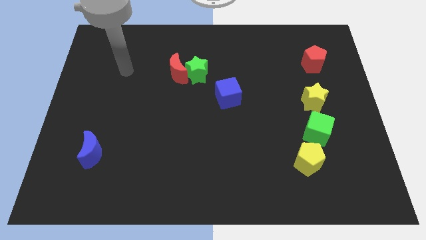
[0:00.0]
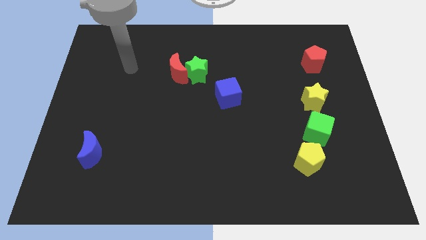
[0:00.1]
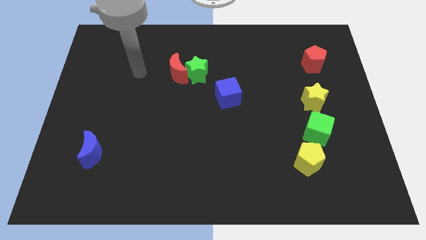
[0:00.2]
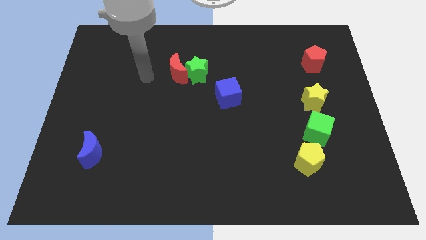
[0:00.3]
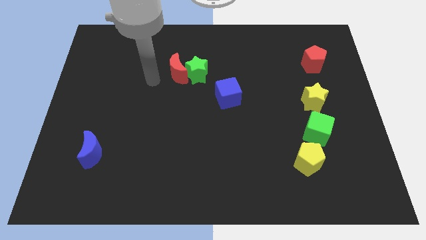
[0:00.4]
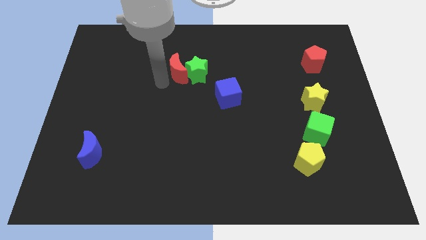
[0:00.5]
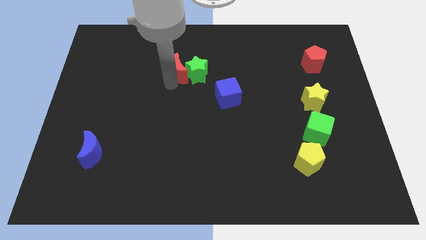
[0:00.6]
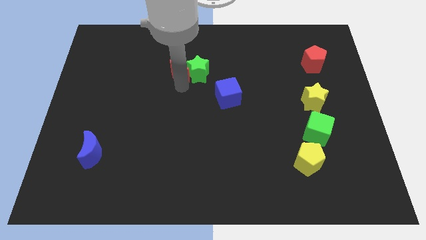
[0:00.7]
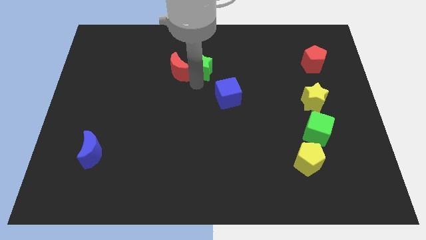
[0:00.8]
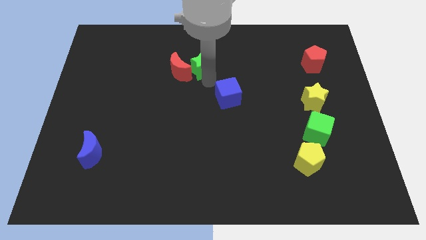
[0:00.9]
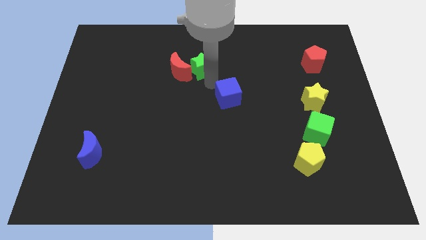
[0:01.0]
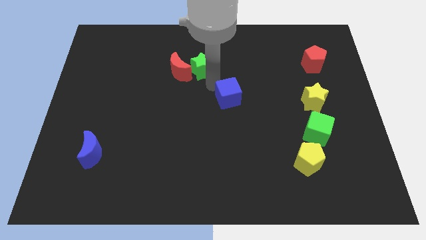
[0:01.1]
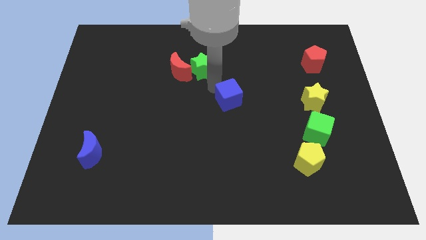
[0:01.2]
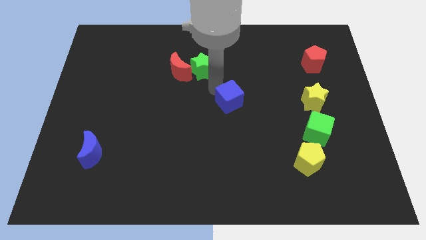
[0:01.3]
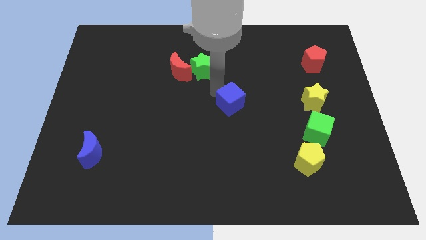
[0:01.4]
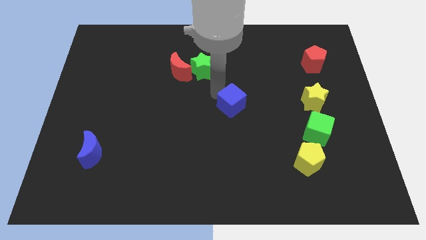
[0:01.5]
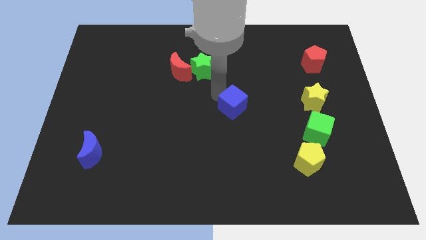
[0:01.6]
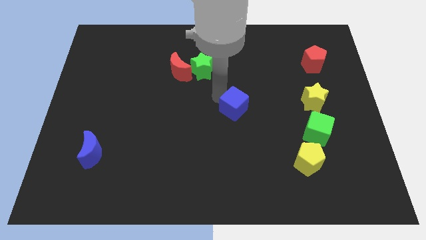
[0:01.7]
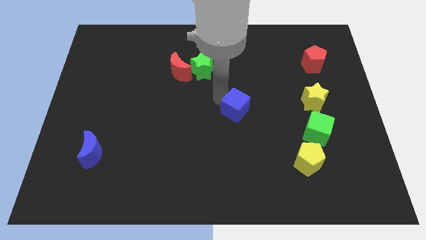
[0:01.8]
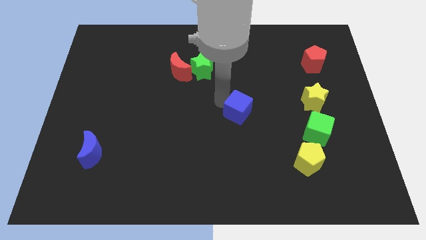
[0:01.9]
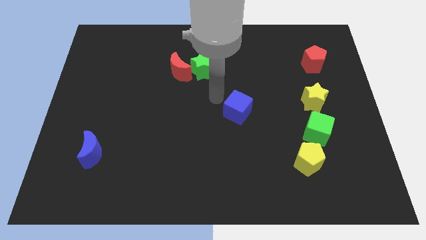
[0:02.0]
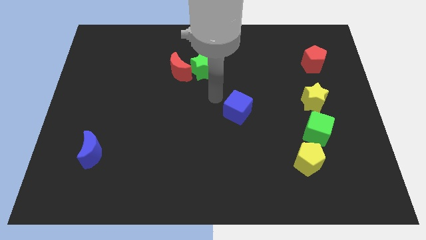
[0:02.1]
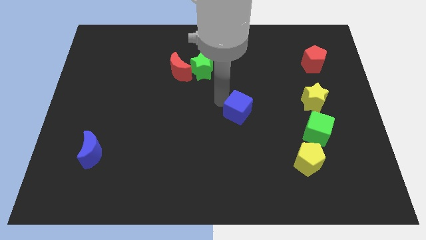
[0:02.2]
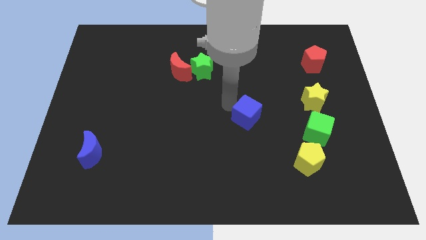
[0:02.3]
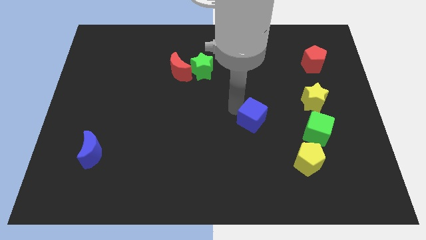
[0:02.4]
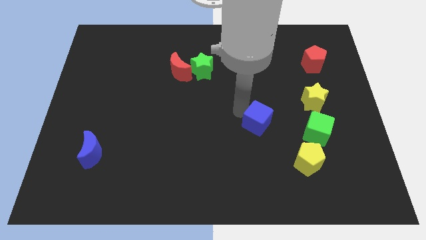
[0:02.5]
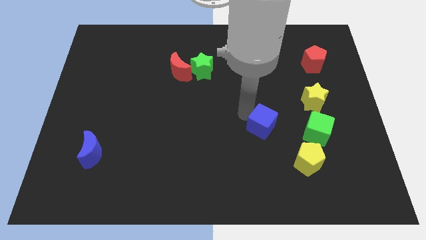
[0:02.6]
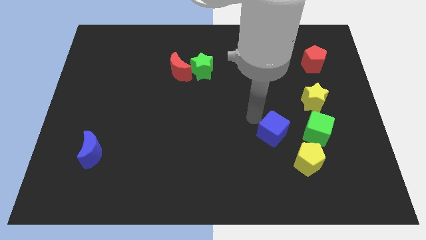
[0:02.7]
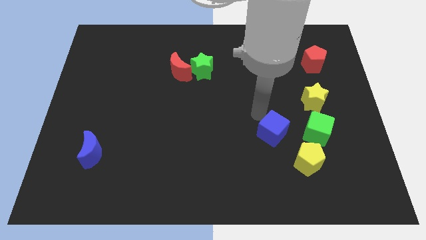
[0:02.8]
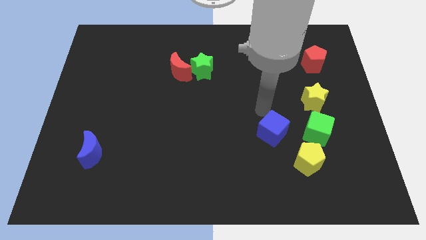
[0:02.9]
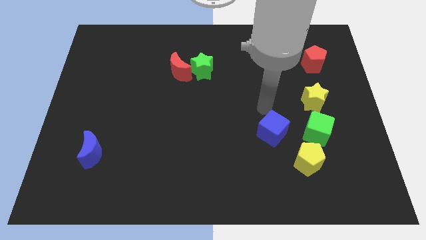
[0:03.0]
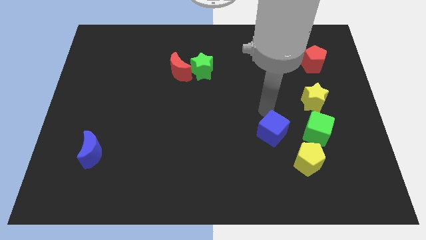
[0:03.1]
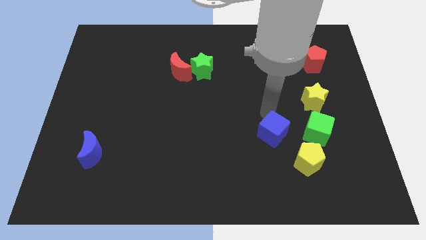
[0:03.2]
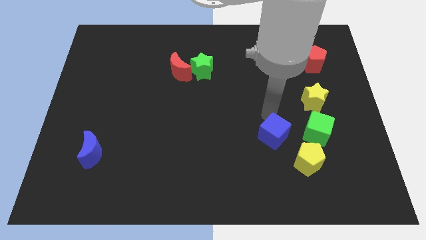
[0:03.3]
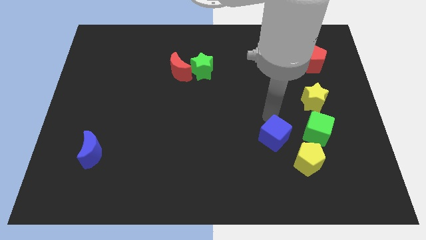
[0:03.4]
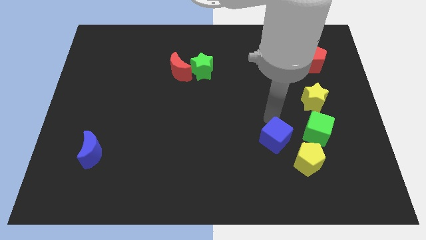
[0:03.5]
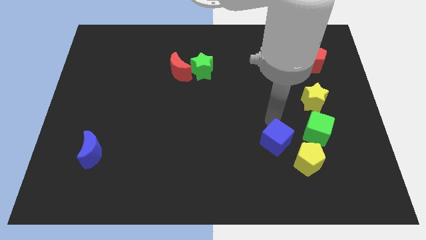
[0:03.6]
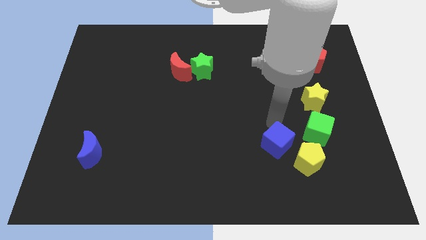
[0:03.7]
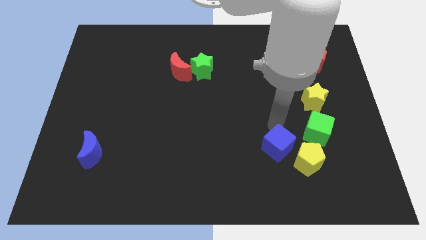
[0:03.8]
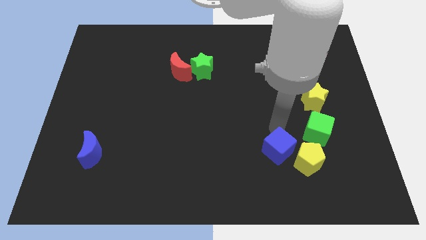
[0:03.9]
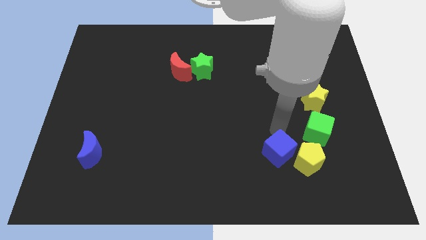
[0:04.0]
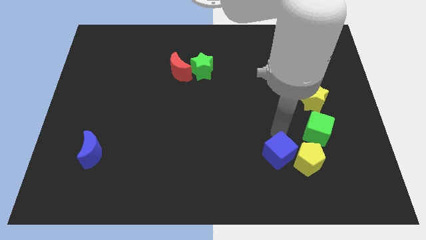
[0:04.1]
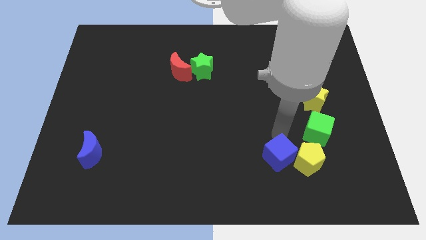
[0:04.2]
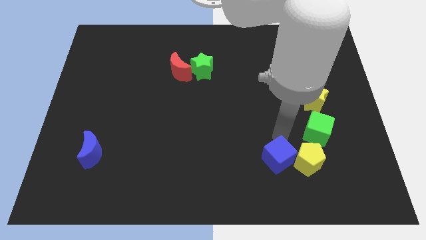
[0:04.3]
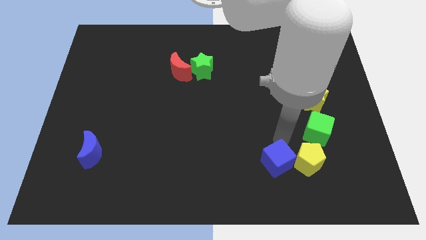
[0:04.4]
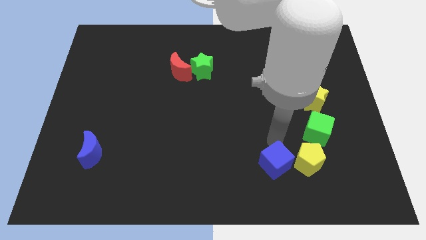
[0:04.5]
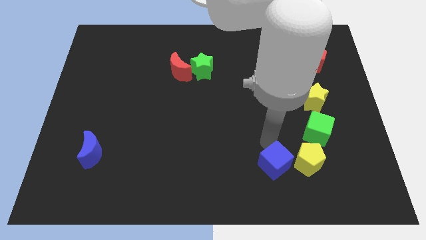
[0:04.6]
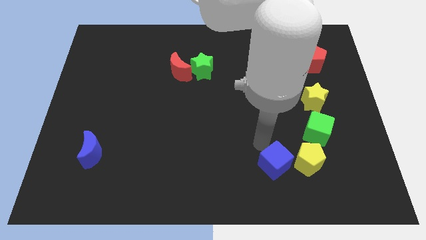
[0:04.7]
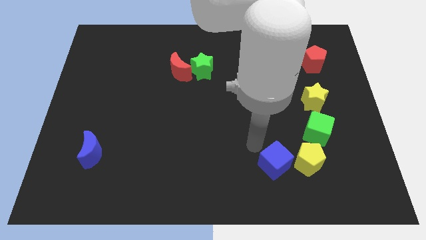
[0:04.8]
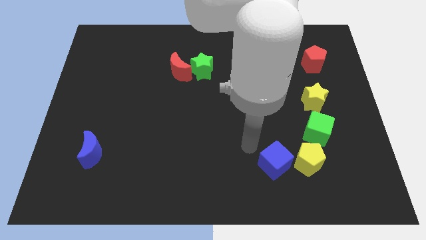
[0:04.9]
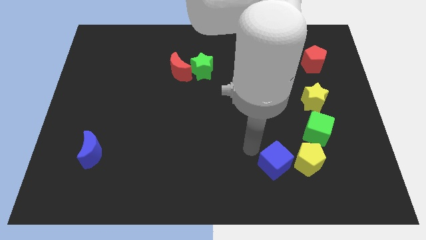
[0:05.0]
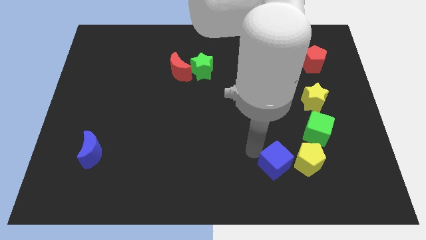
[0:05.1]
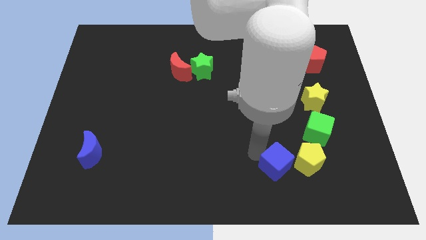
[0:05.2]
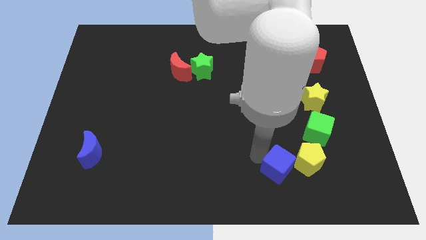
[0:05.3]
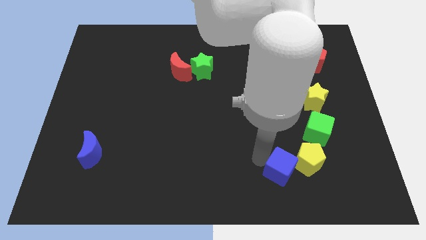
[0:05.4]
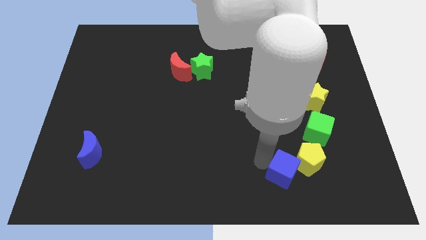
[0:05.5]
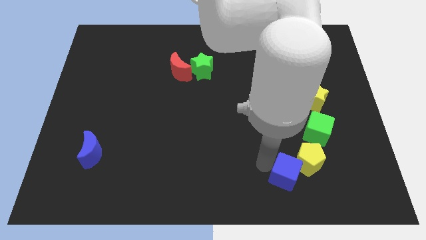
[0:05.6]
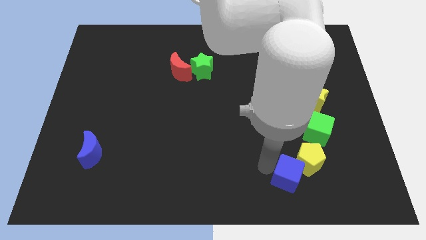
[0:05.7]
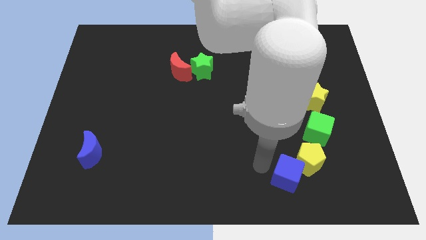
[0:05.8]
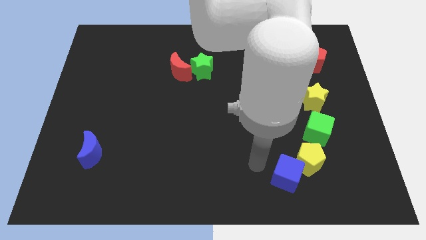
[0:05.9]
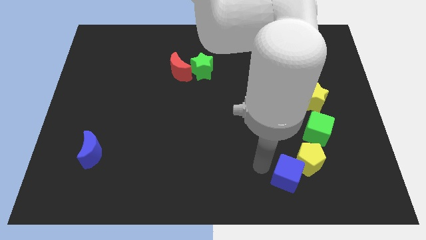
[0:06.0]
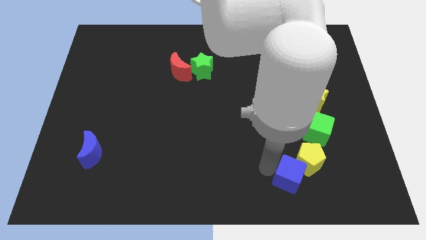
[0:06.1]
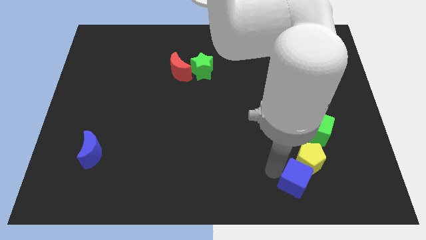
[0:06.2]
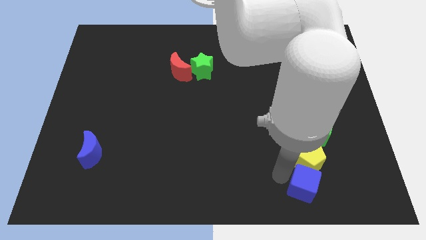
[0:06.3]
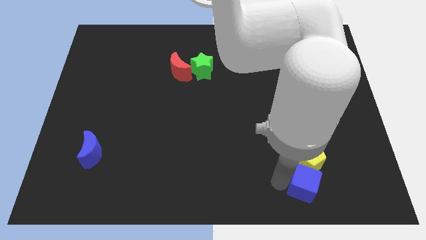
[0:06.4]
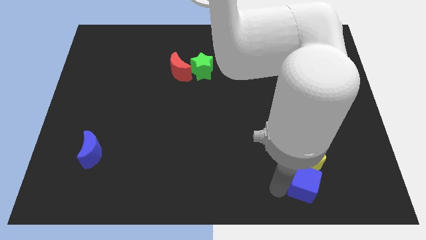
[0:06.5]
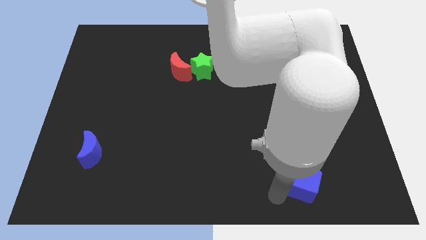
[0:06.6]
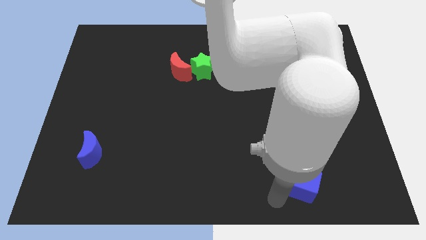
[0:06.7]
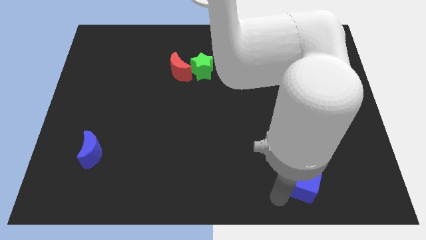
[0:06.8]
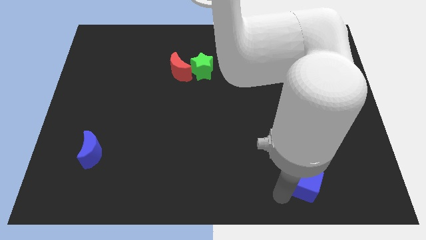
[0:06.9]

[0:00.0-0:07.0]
slide the blue cube below the green cube

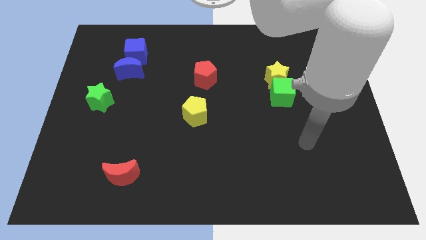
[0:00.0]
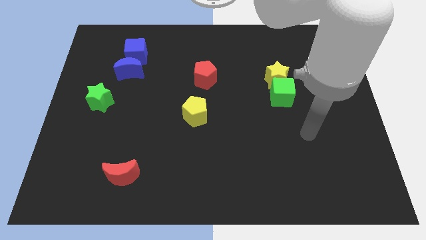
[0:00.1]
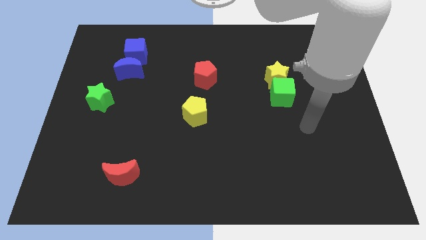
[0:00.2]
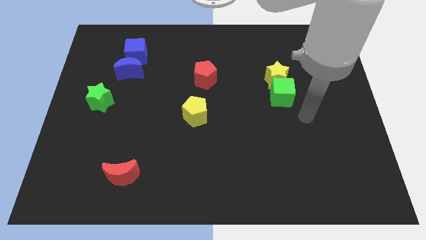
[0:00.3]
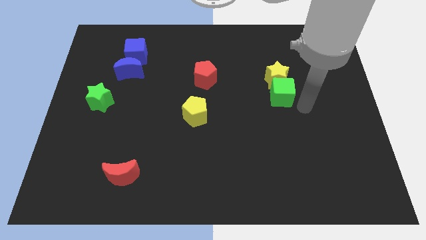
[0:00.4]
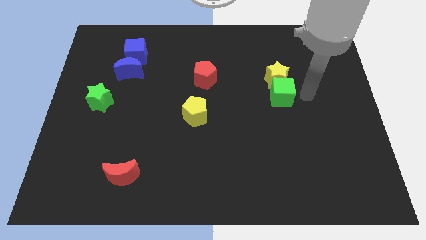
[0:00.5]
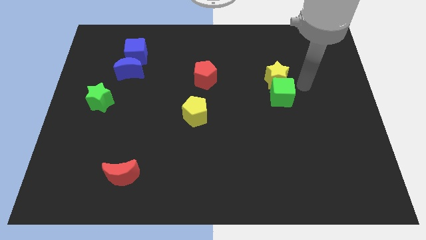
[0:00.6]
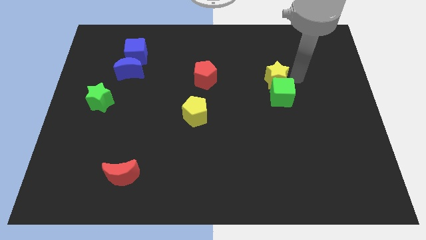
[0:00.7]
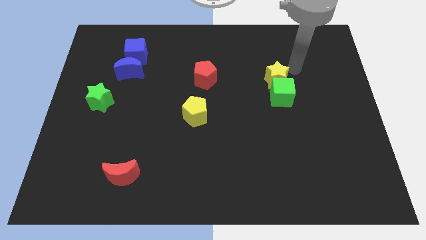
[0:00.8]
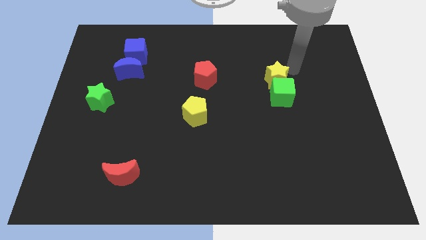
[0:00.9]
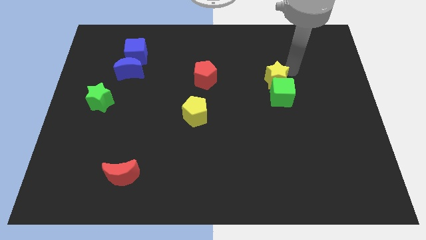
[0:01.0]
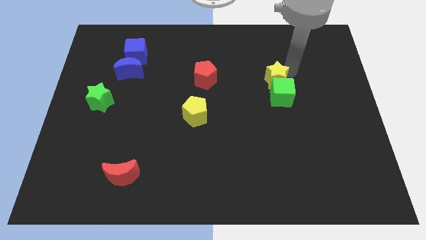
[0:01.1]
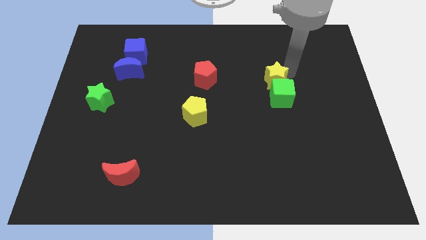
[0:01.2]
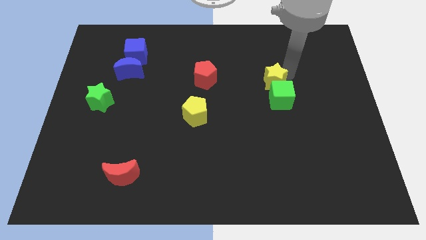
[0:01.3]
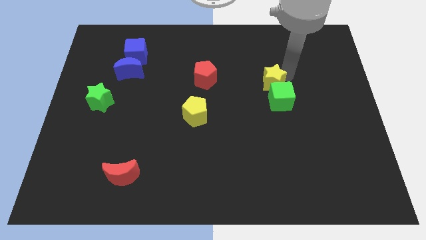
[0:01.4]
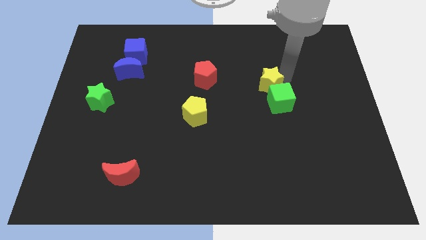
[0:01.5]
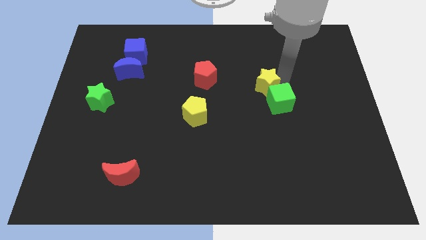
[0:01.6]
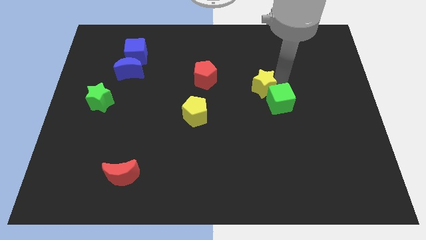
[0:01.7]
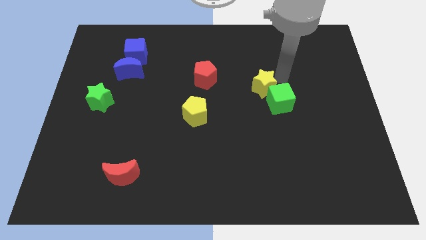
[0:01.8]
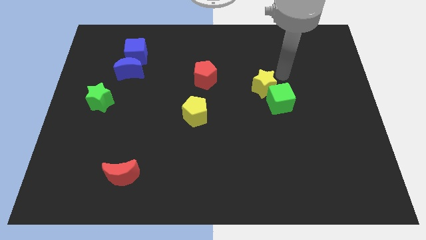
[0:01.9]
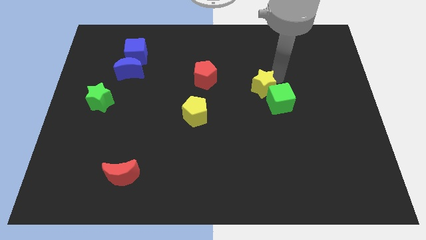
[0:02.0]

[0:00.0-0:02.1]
push the yellow star to the left of the green cube
